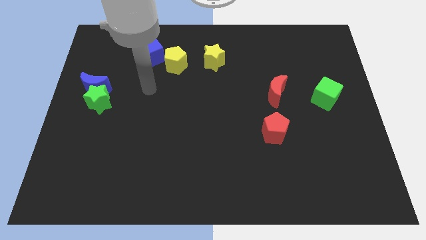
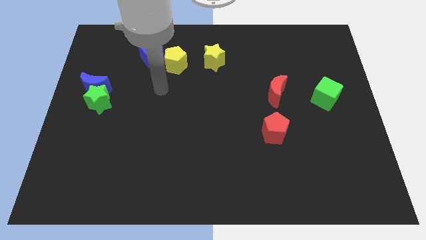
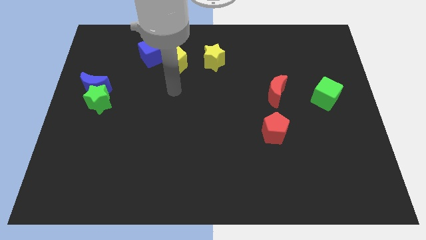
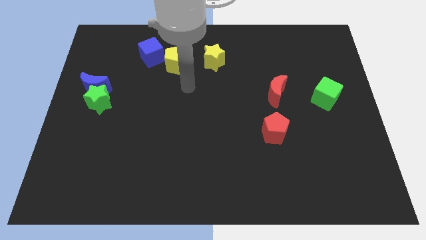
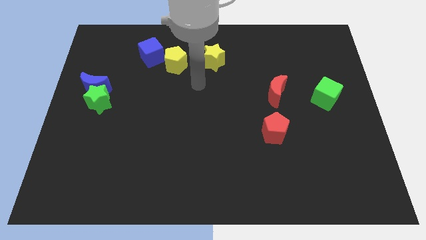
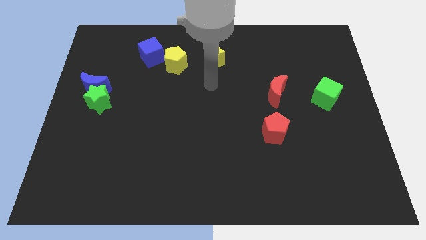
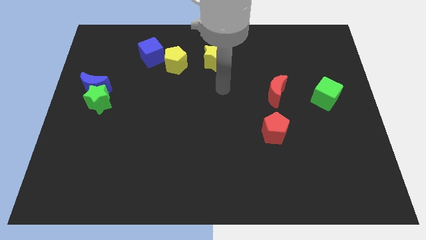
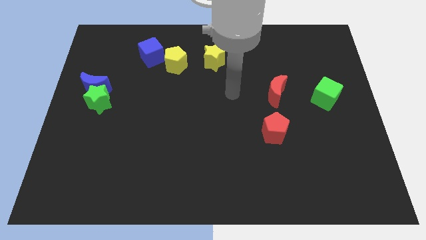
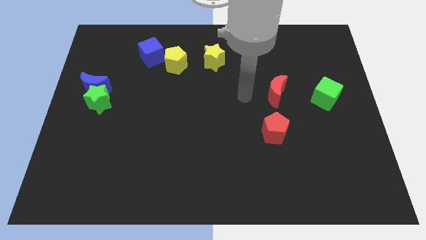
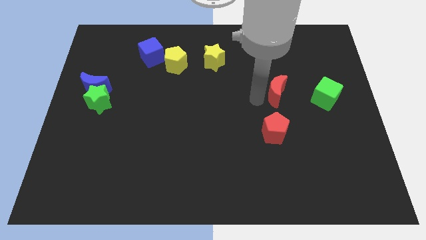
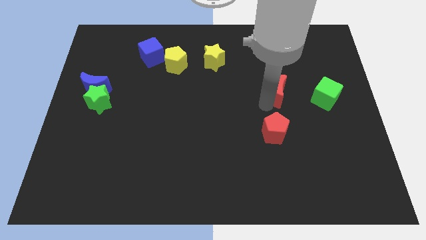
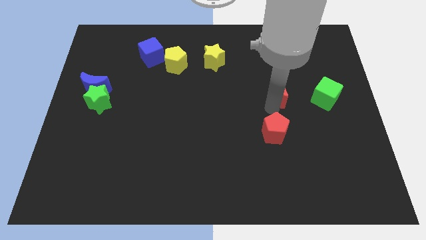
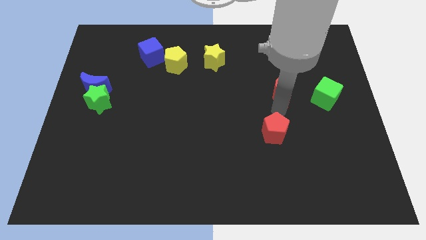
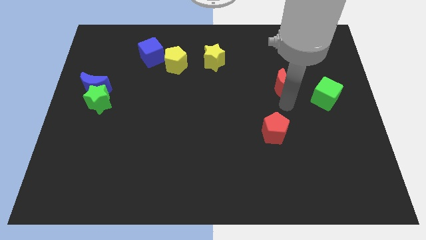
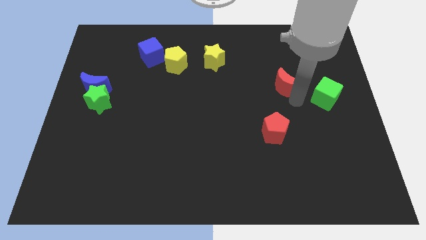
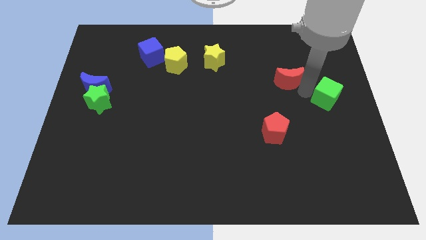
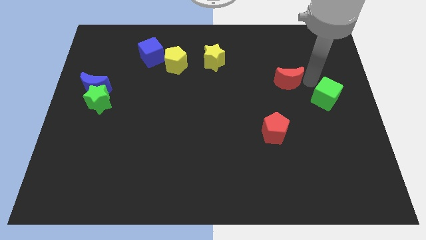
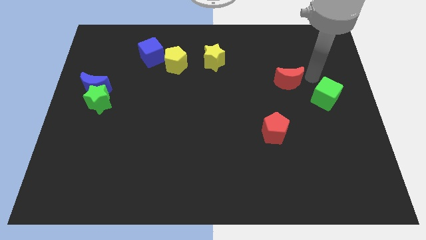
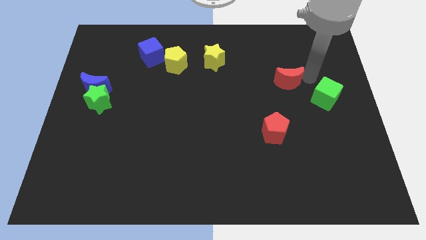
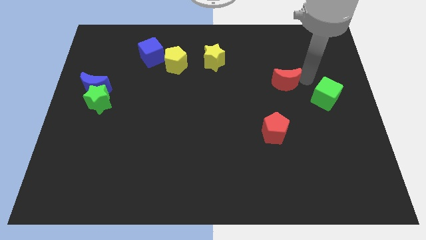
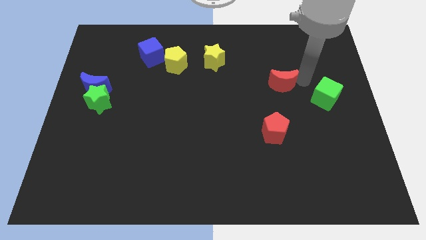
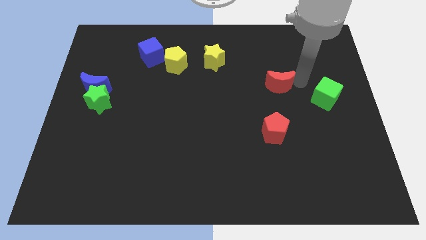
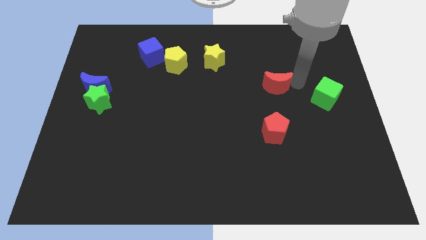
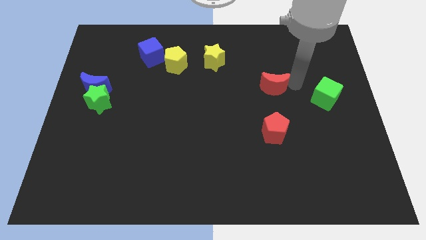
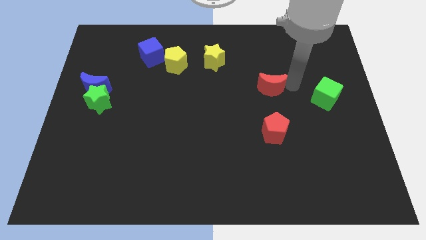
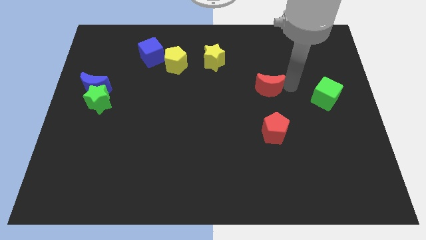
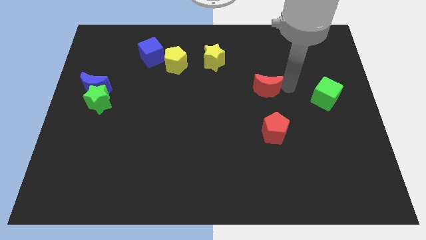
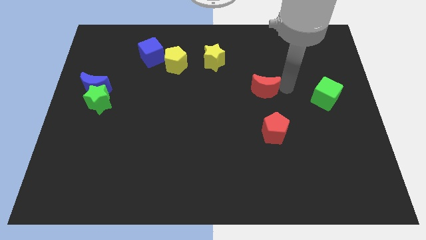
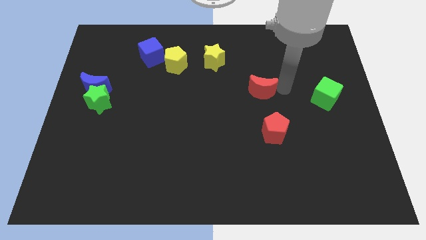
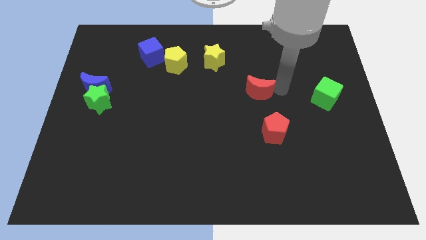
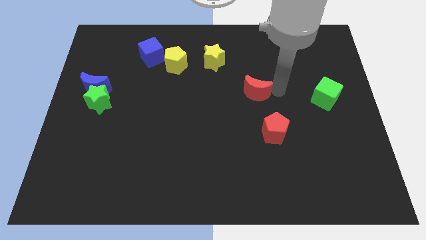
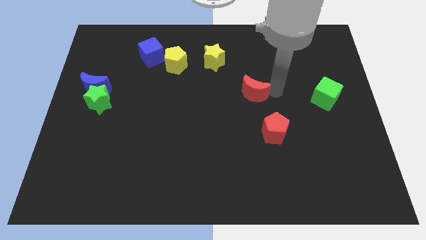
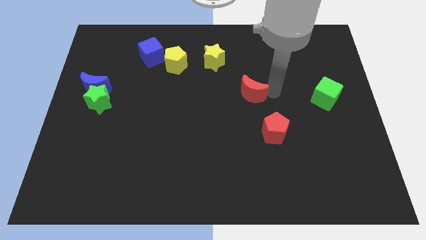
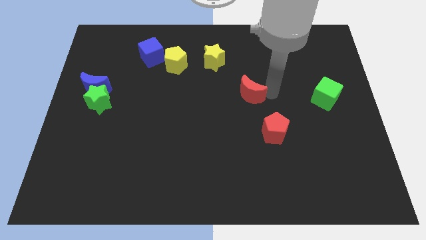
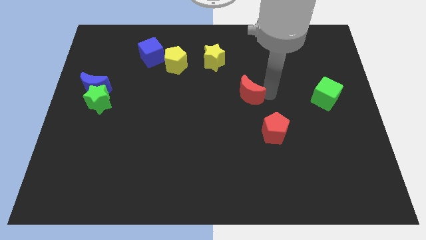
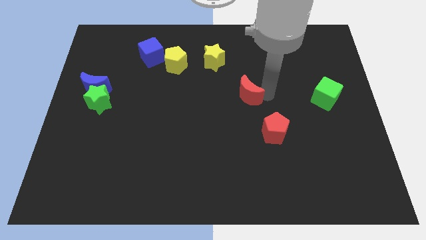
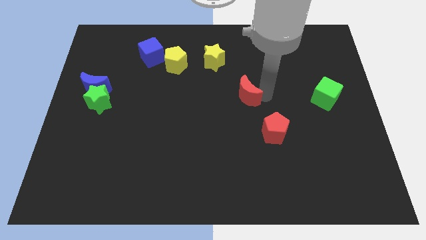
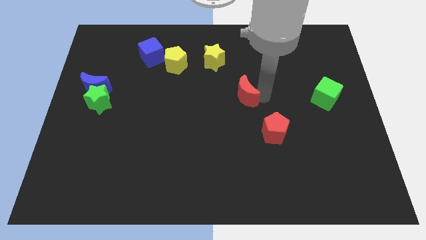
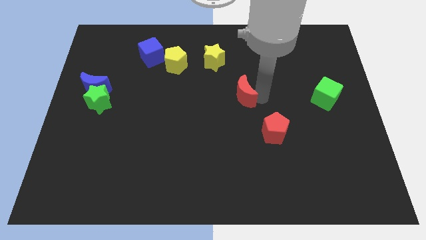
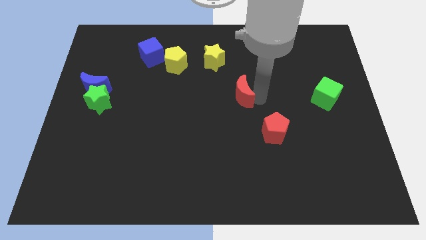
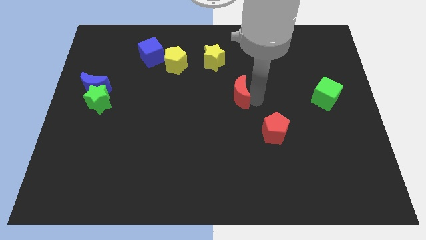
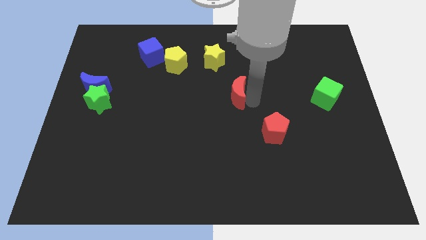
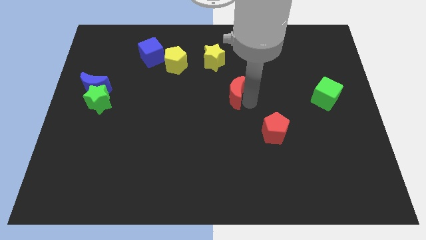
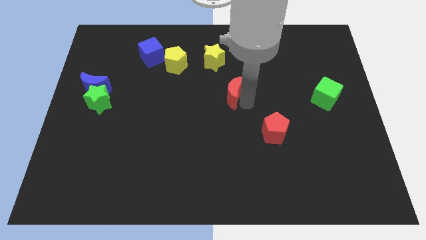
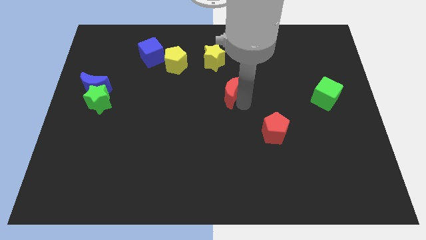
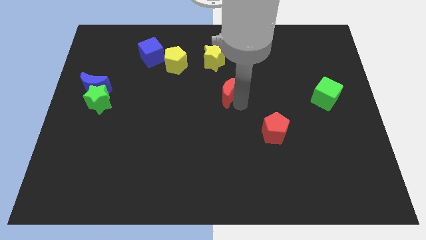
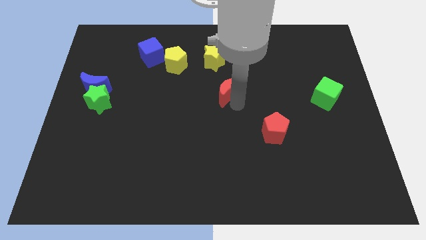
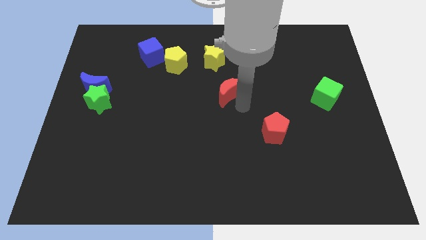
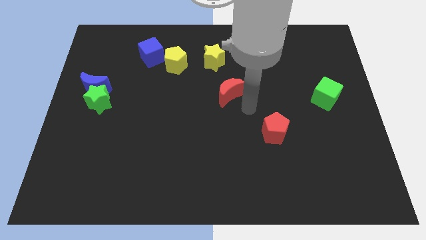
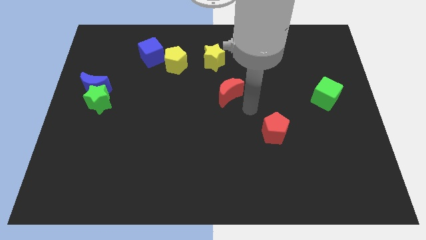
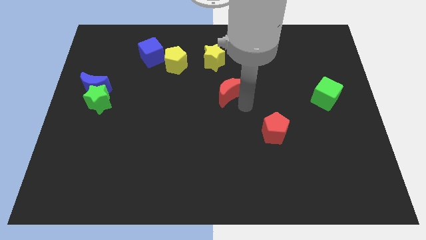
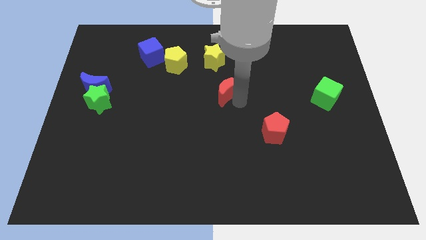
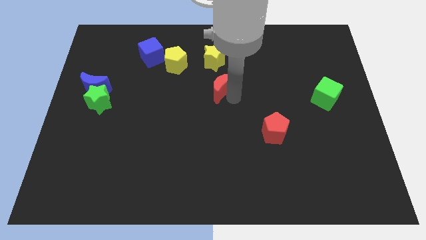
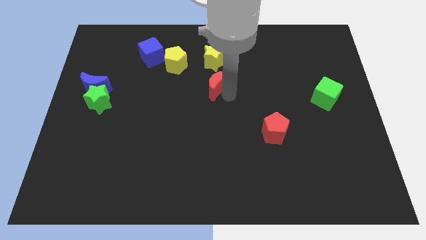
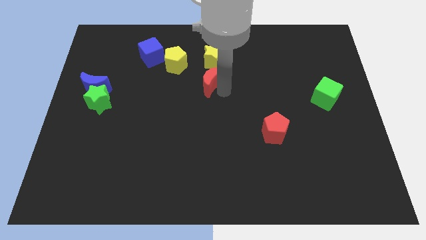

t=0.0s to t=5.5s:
slide the red moon to the bottom right side of the yellow pentagon

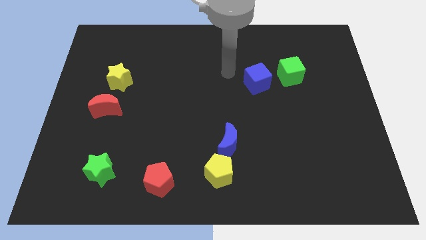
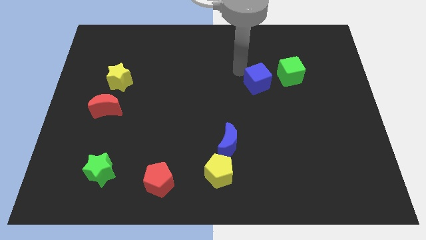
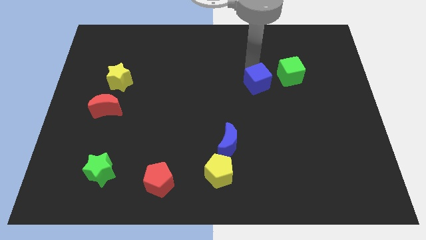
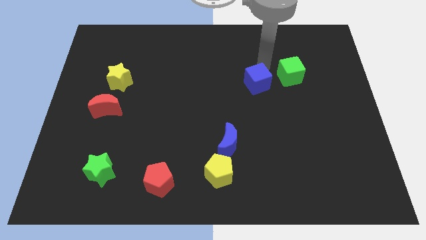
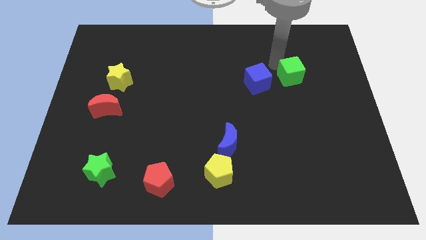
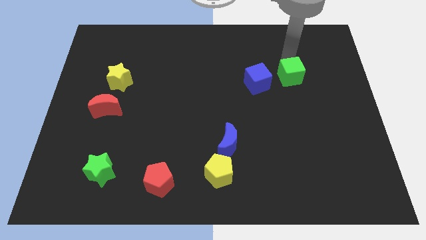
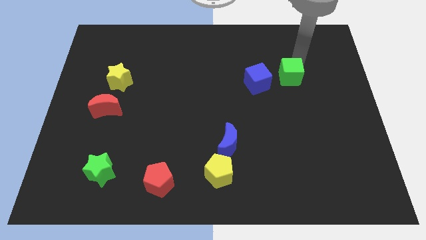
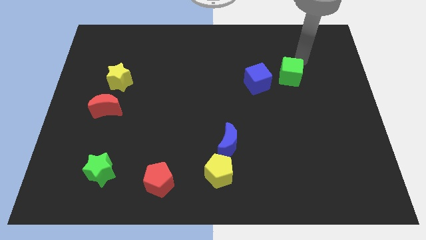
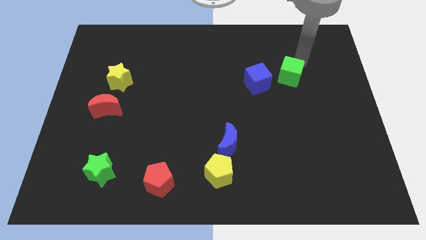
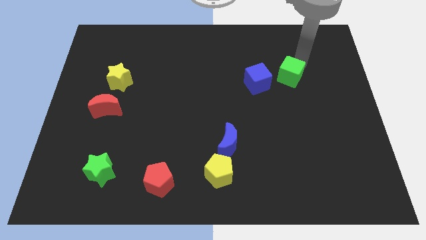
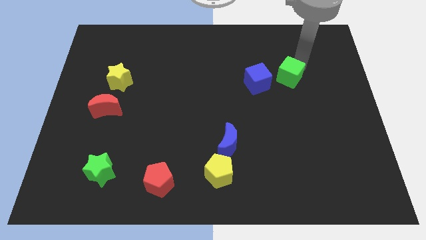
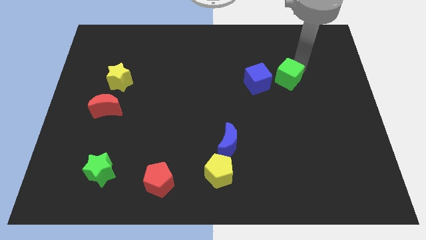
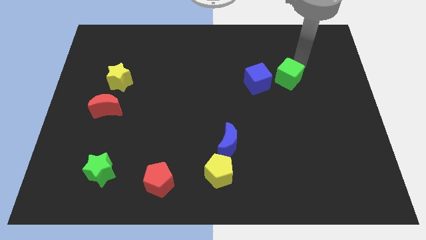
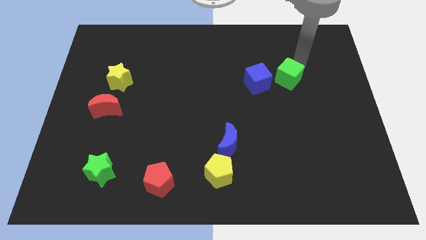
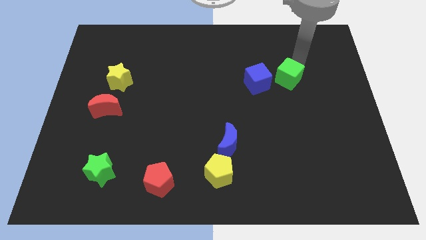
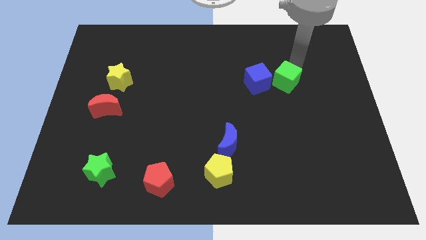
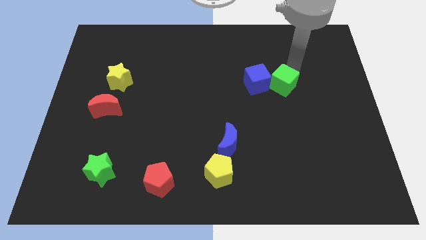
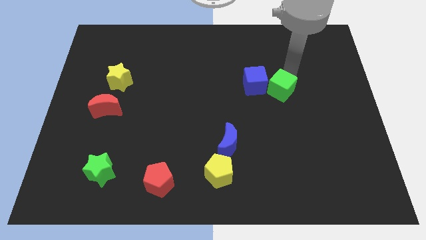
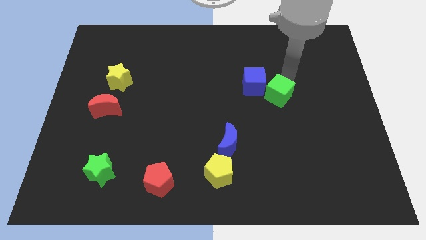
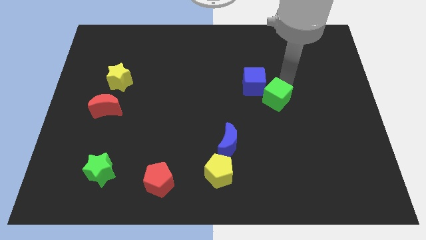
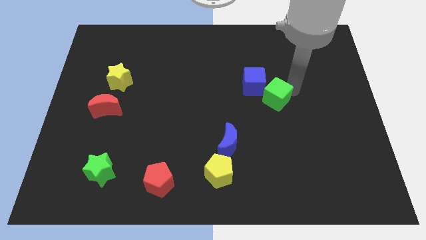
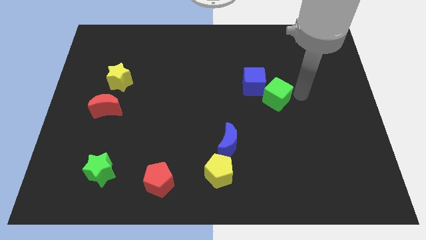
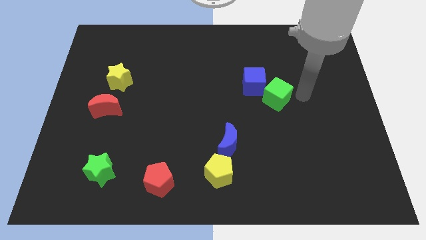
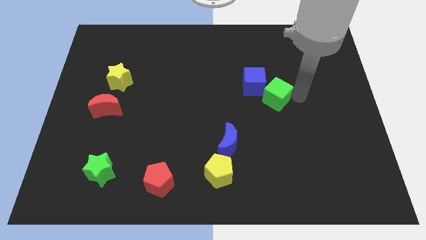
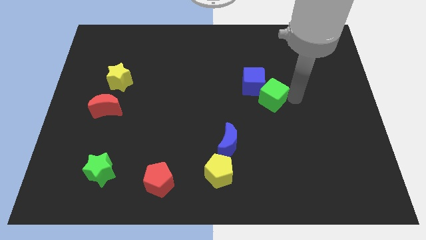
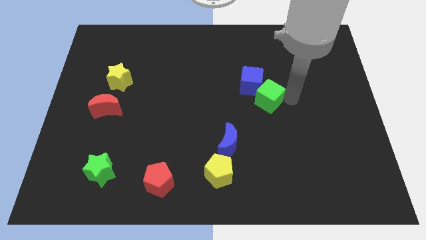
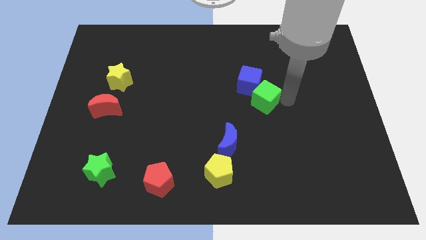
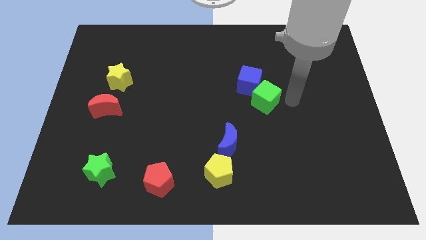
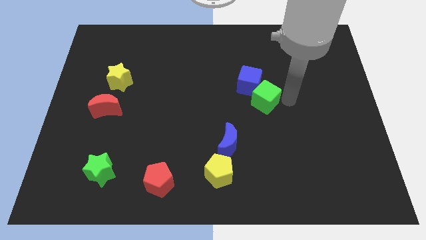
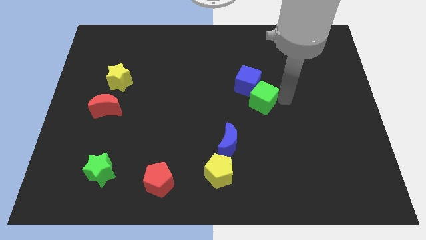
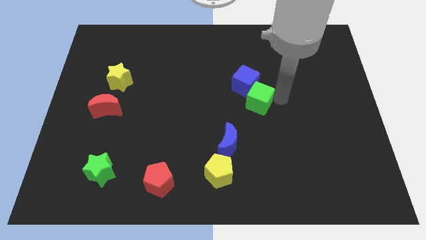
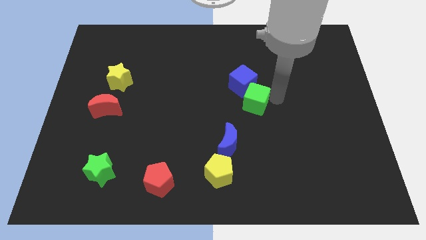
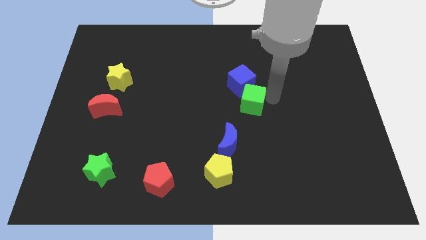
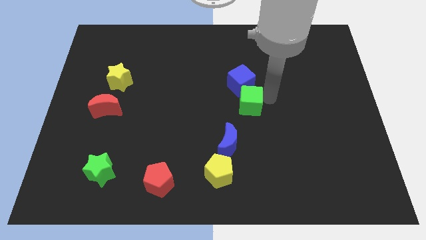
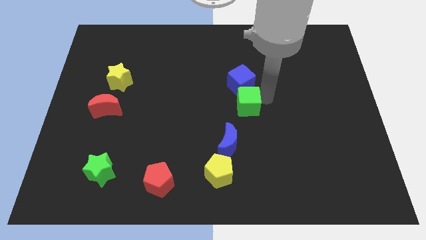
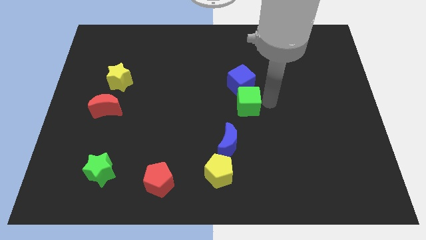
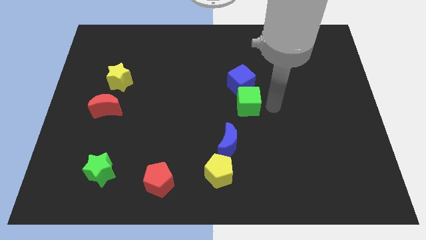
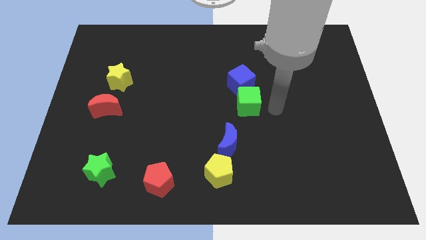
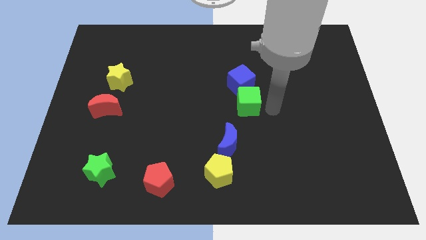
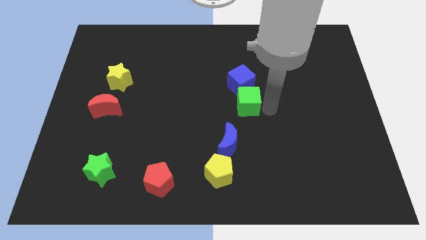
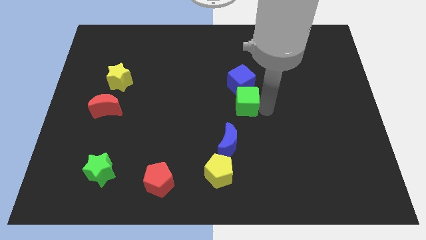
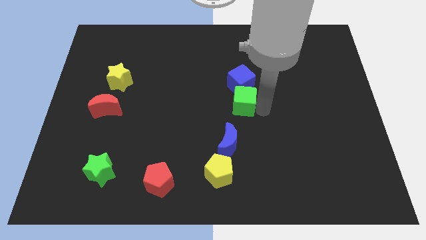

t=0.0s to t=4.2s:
put the green cube to the bottom left of the blue cube
